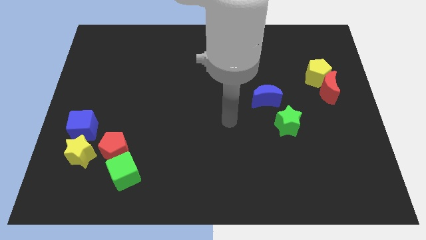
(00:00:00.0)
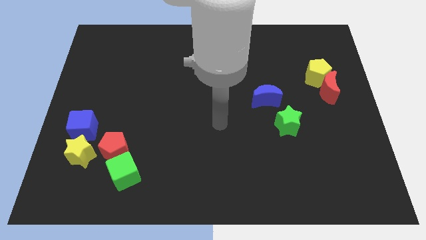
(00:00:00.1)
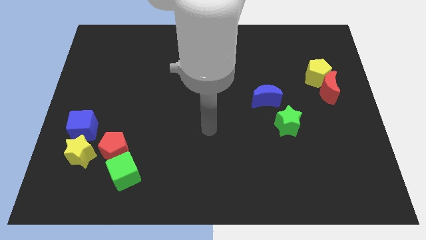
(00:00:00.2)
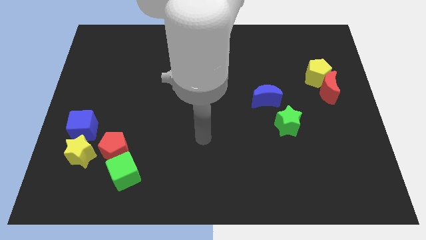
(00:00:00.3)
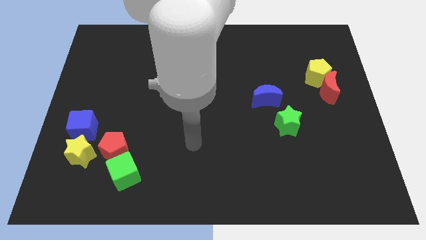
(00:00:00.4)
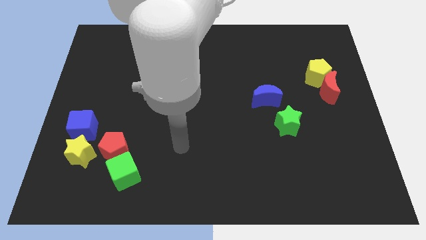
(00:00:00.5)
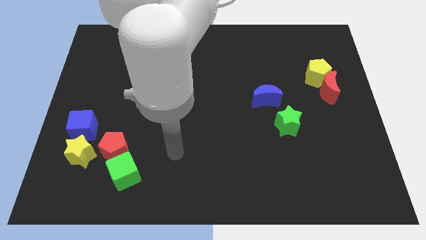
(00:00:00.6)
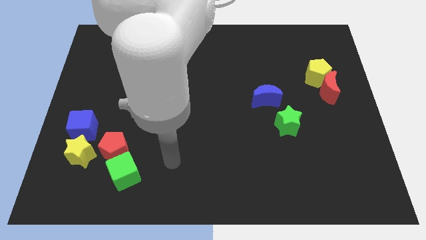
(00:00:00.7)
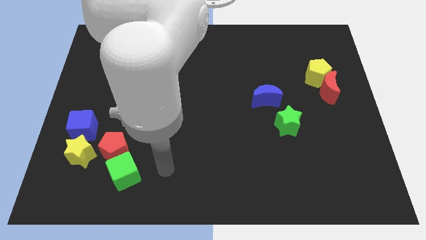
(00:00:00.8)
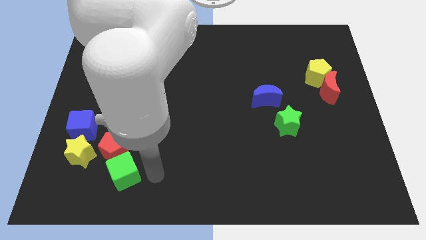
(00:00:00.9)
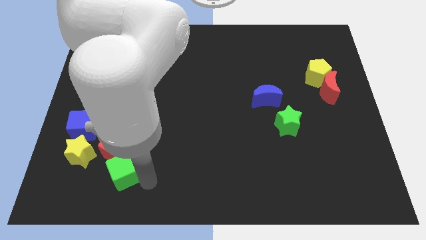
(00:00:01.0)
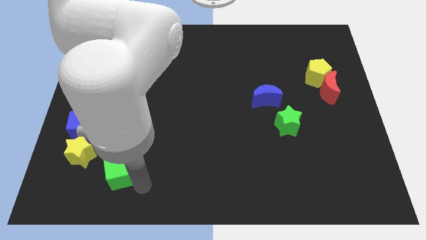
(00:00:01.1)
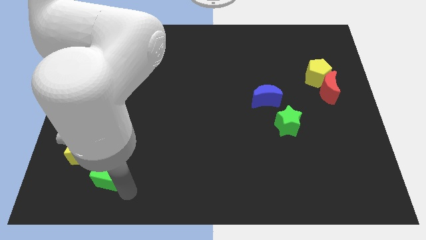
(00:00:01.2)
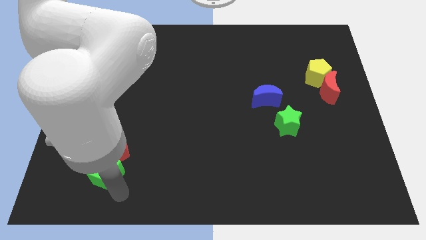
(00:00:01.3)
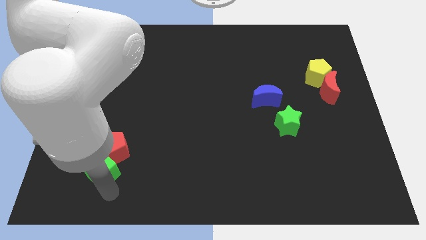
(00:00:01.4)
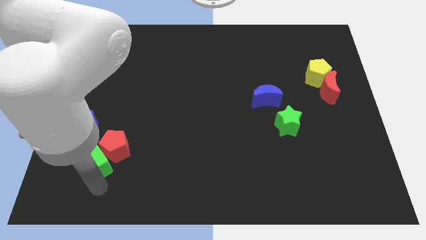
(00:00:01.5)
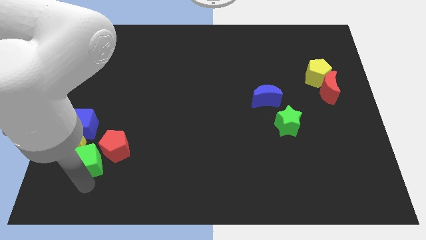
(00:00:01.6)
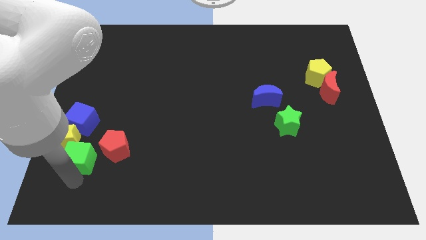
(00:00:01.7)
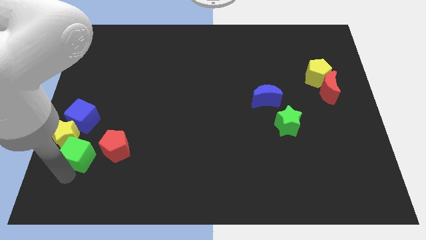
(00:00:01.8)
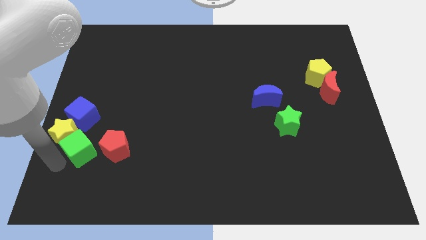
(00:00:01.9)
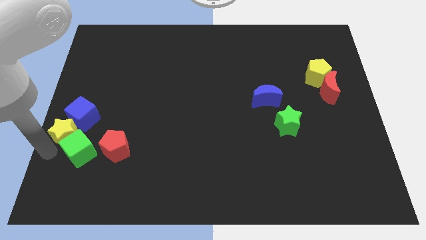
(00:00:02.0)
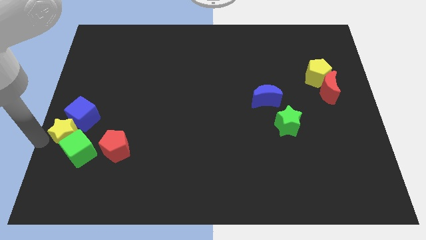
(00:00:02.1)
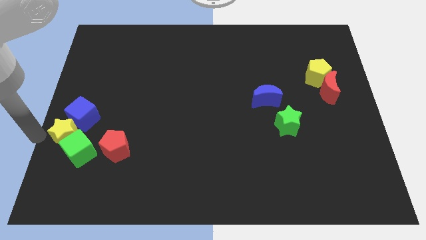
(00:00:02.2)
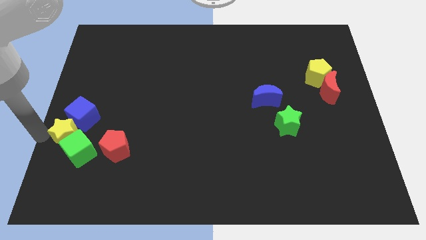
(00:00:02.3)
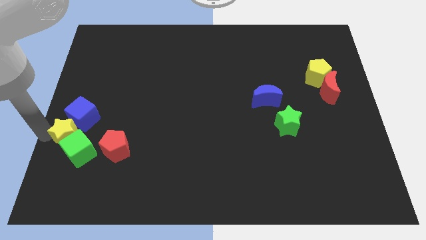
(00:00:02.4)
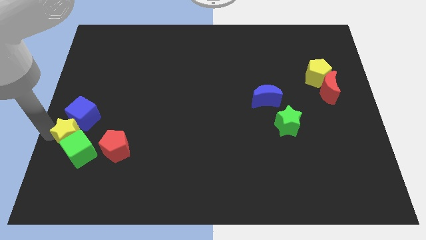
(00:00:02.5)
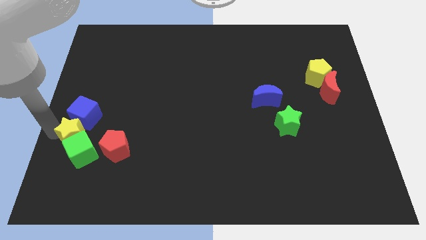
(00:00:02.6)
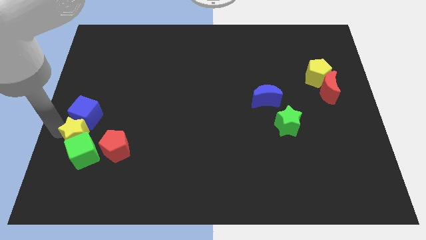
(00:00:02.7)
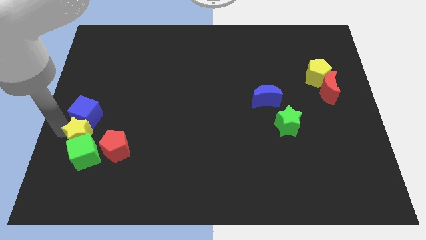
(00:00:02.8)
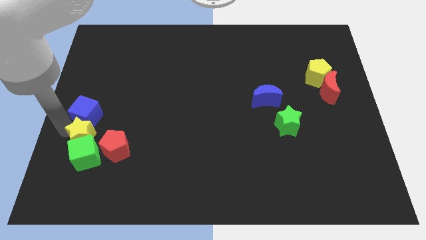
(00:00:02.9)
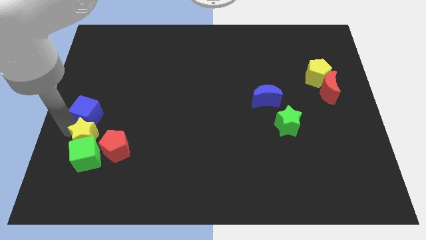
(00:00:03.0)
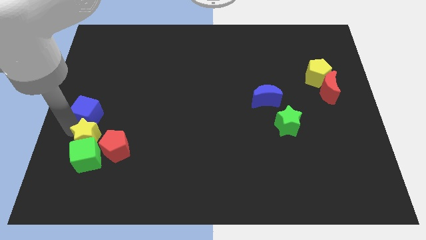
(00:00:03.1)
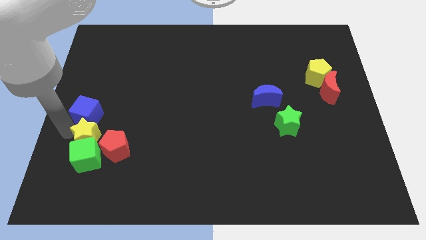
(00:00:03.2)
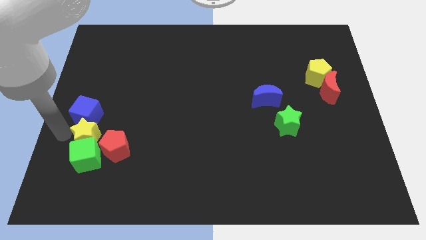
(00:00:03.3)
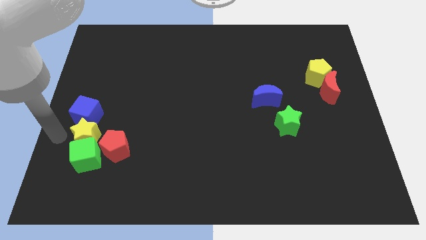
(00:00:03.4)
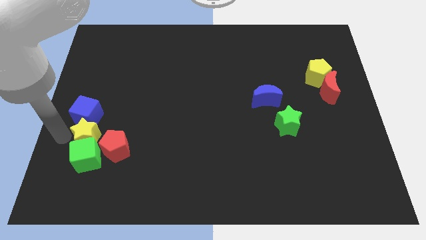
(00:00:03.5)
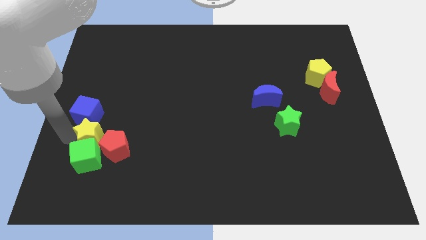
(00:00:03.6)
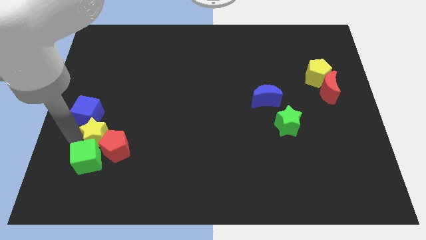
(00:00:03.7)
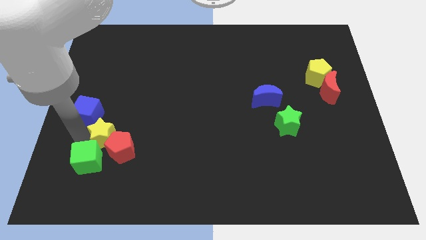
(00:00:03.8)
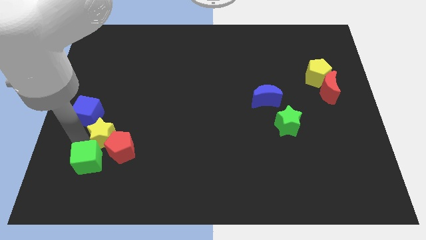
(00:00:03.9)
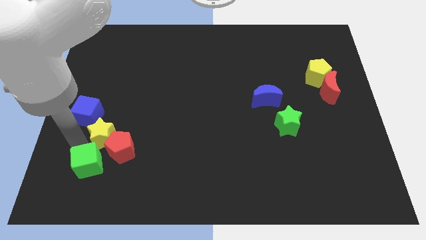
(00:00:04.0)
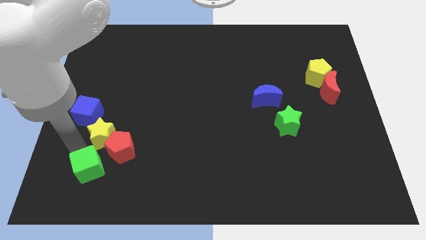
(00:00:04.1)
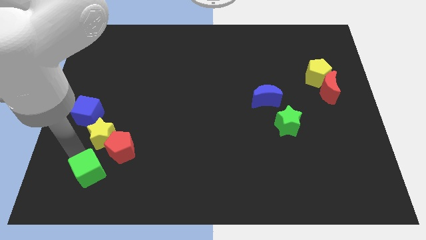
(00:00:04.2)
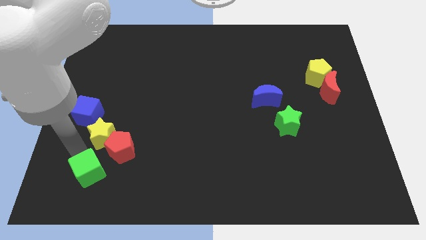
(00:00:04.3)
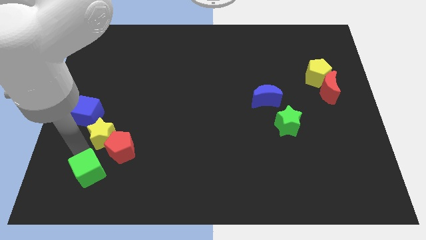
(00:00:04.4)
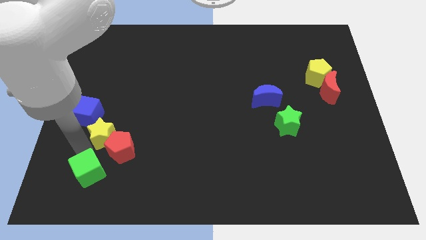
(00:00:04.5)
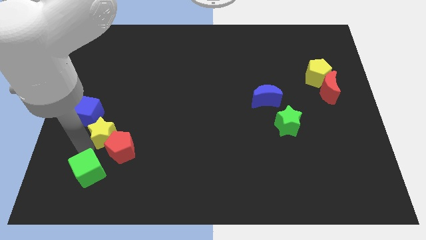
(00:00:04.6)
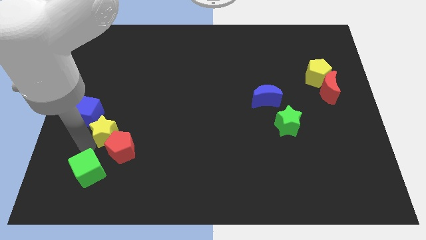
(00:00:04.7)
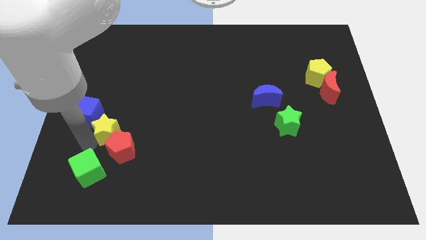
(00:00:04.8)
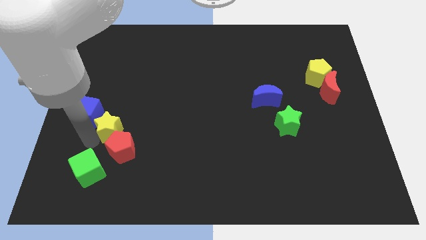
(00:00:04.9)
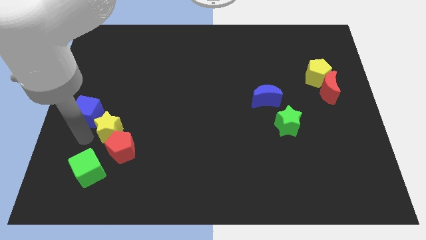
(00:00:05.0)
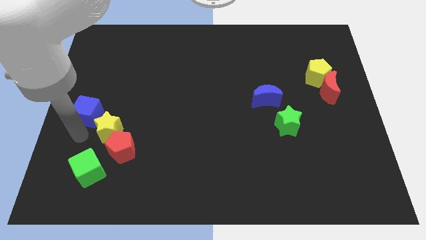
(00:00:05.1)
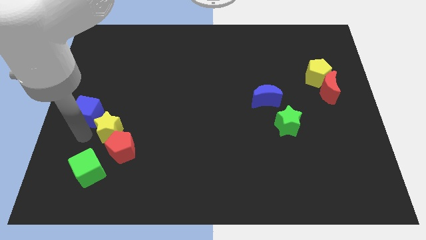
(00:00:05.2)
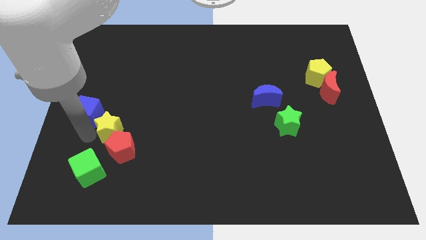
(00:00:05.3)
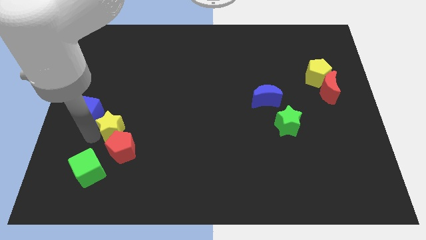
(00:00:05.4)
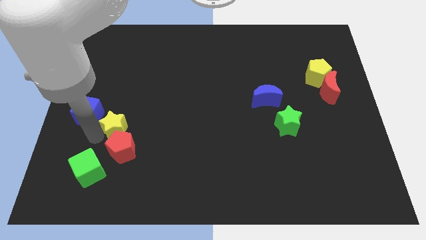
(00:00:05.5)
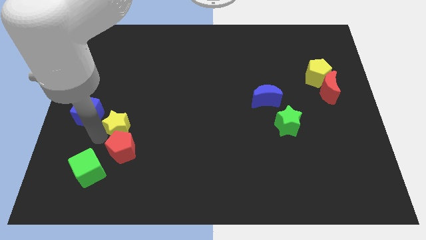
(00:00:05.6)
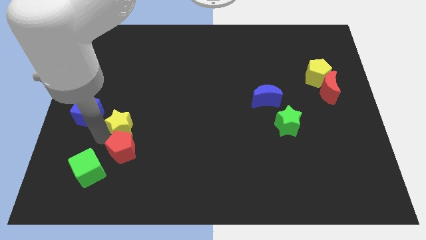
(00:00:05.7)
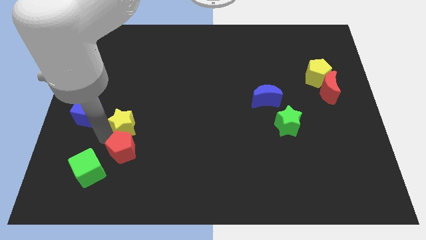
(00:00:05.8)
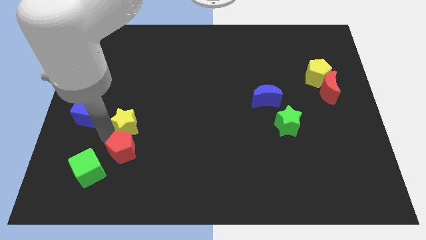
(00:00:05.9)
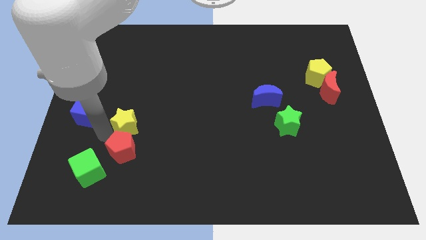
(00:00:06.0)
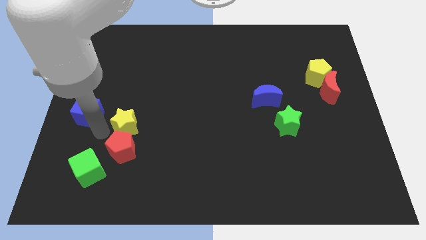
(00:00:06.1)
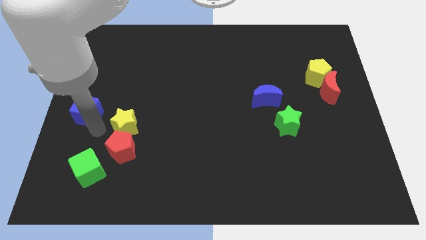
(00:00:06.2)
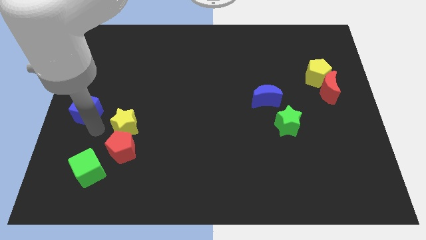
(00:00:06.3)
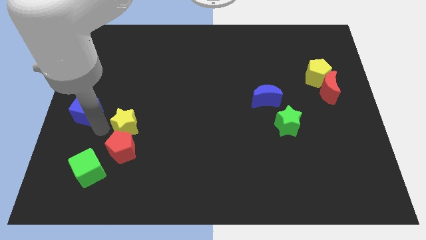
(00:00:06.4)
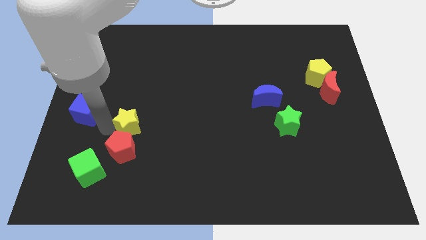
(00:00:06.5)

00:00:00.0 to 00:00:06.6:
push the yellow star to the right a little

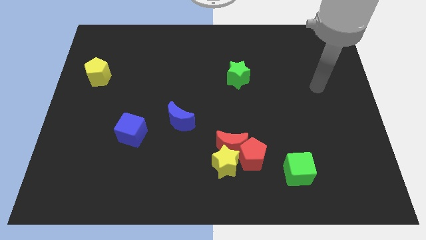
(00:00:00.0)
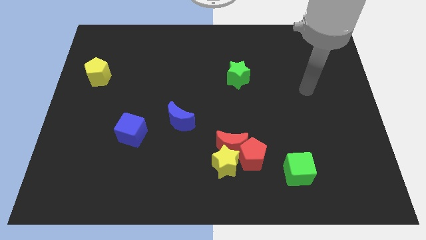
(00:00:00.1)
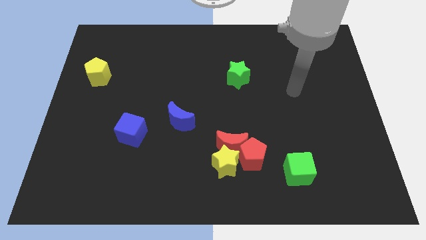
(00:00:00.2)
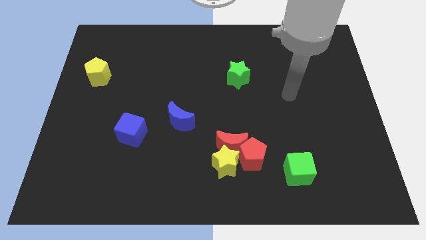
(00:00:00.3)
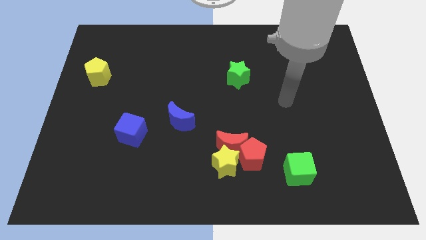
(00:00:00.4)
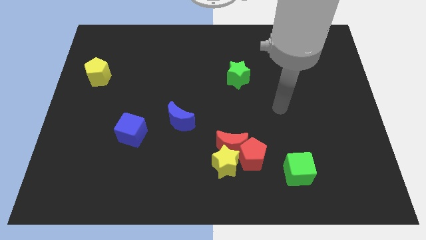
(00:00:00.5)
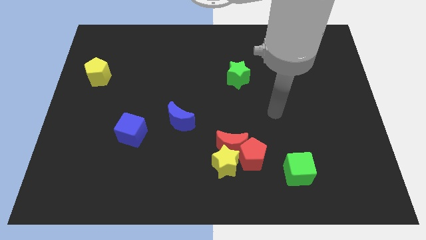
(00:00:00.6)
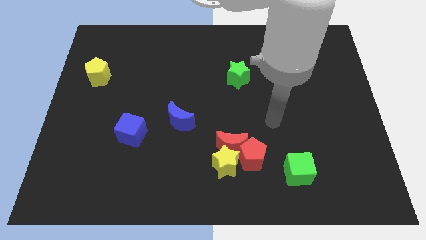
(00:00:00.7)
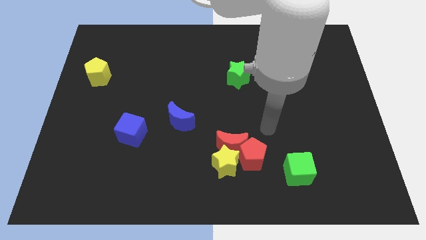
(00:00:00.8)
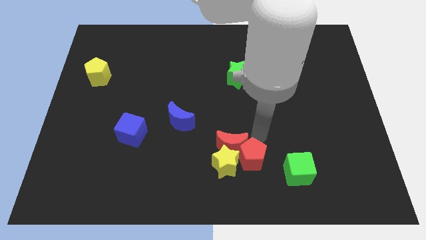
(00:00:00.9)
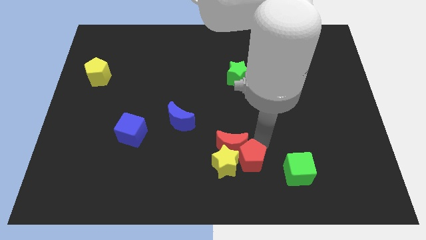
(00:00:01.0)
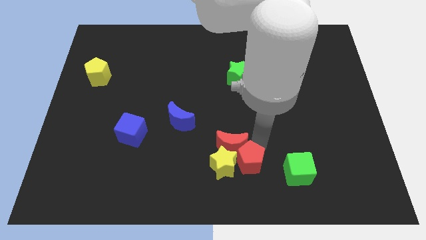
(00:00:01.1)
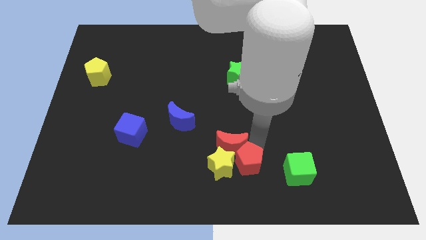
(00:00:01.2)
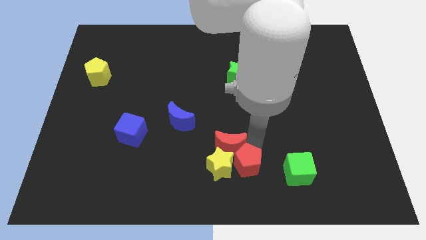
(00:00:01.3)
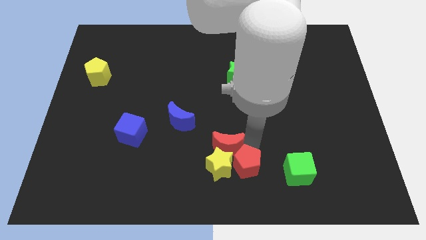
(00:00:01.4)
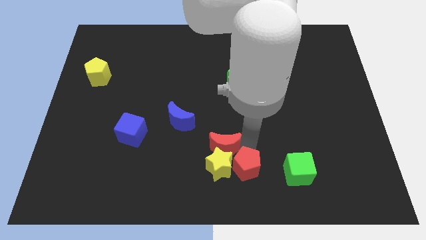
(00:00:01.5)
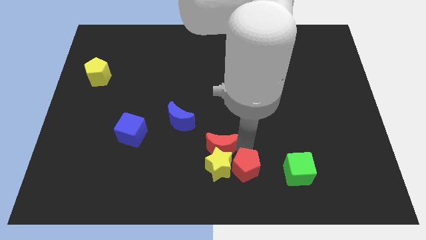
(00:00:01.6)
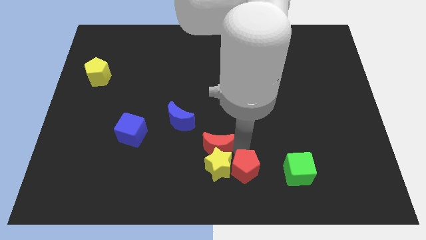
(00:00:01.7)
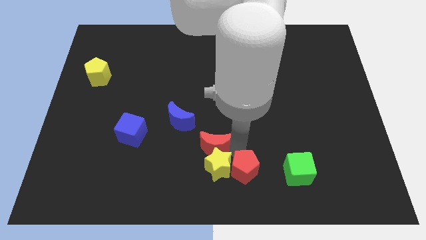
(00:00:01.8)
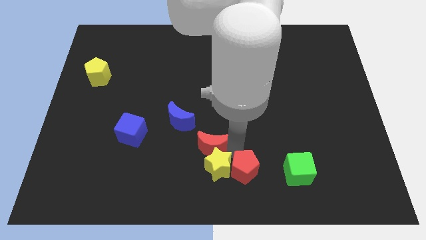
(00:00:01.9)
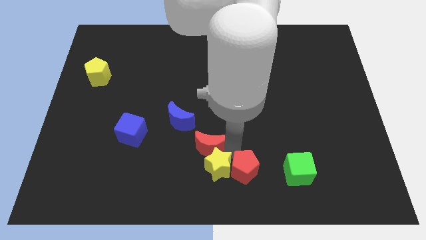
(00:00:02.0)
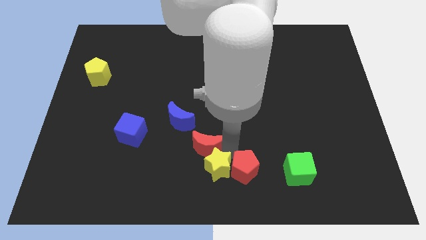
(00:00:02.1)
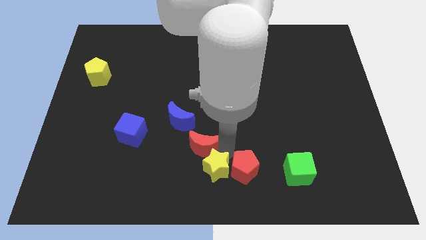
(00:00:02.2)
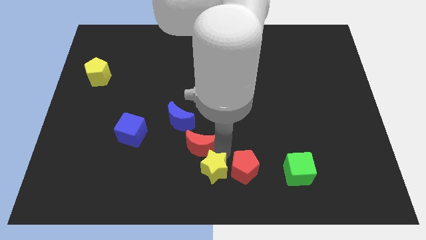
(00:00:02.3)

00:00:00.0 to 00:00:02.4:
push the red moon left a little
